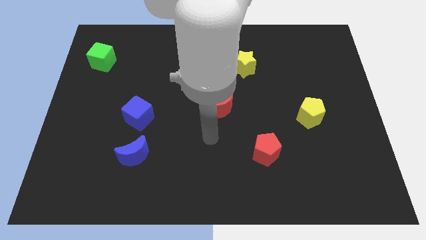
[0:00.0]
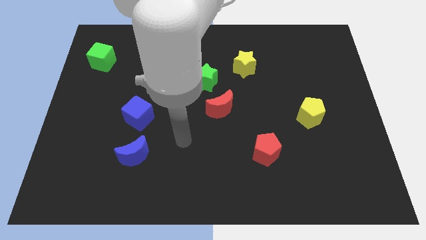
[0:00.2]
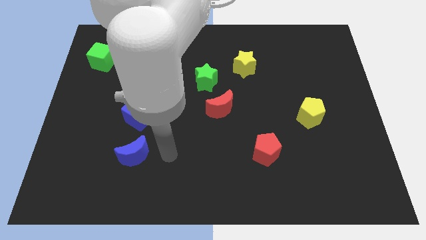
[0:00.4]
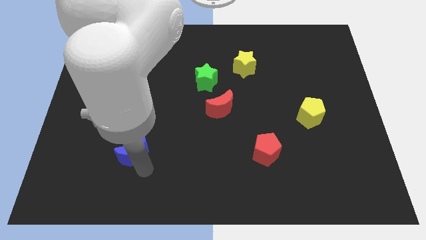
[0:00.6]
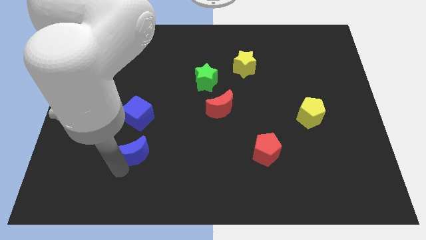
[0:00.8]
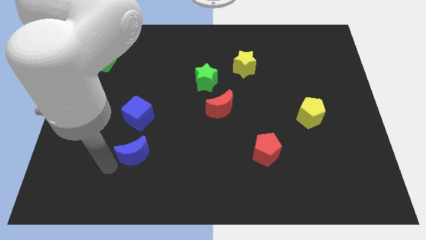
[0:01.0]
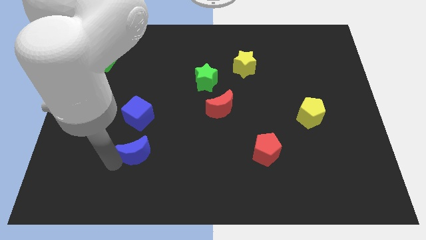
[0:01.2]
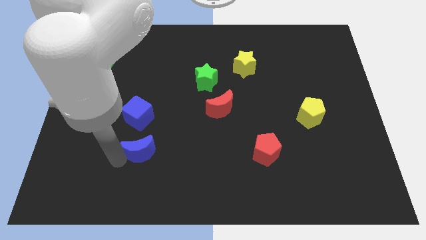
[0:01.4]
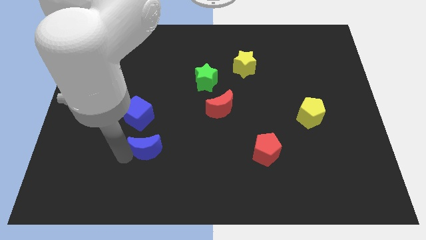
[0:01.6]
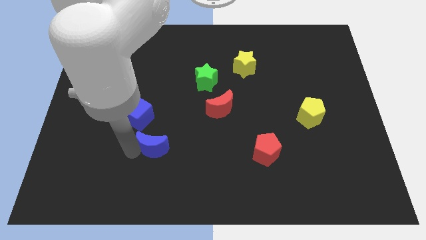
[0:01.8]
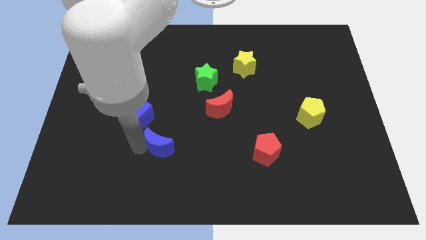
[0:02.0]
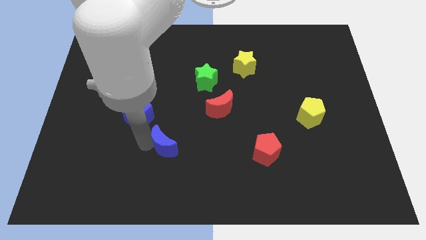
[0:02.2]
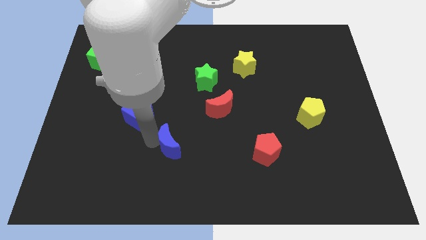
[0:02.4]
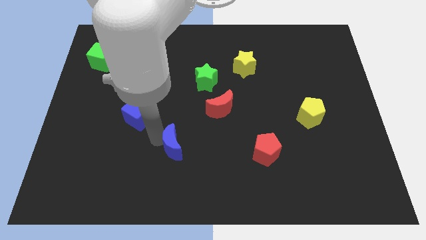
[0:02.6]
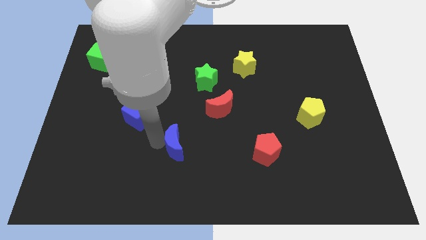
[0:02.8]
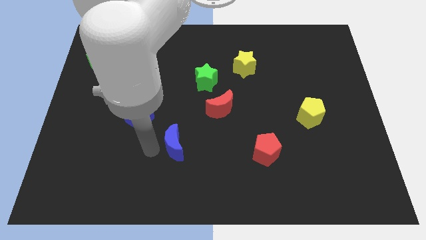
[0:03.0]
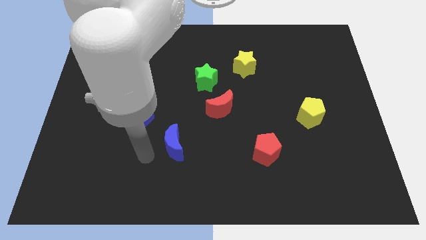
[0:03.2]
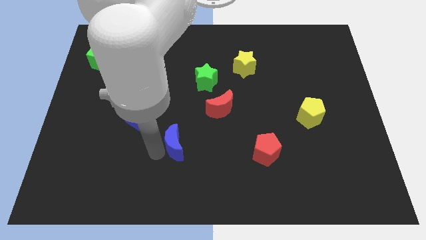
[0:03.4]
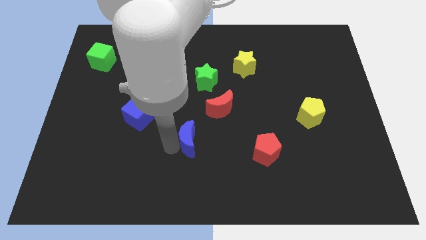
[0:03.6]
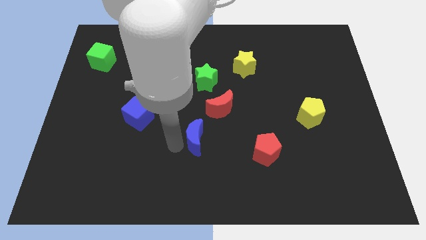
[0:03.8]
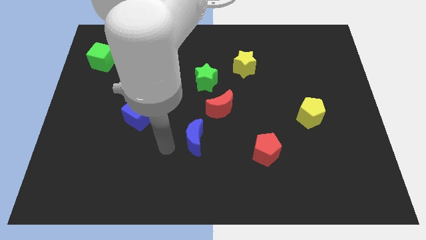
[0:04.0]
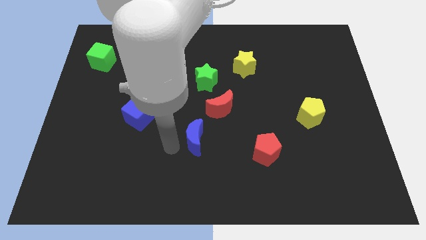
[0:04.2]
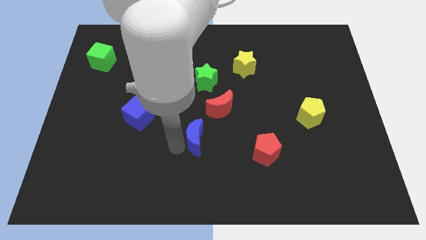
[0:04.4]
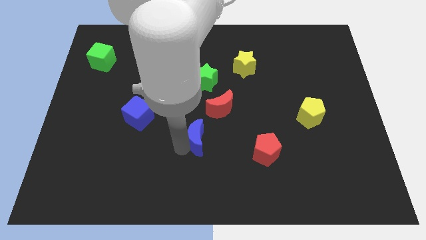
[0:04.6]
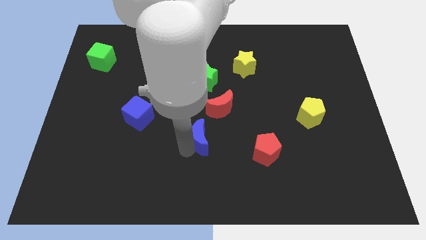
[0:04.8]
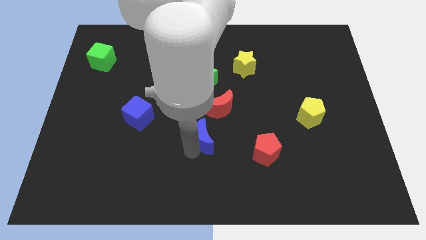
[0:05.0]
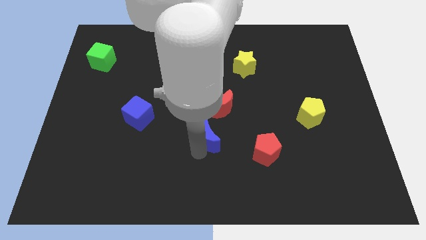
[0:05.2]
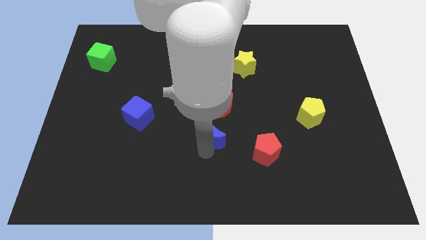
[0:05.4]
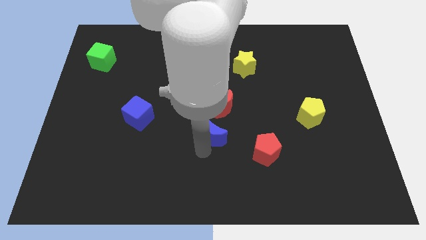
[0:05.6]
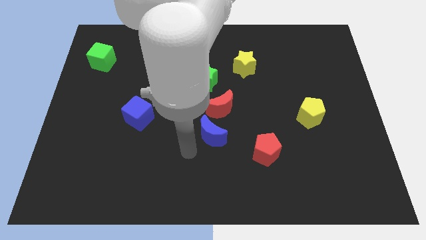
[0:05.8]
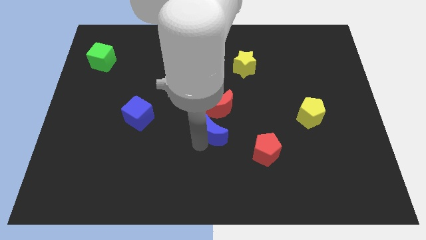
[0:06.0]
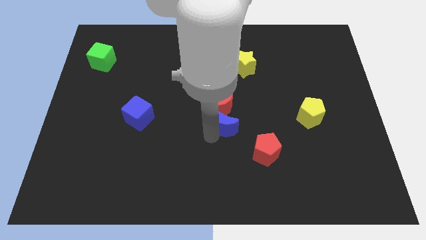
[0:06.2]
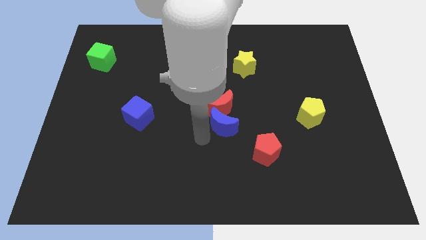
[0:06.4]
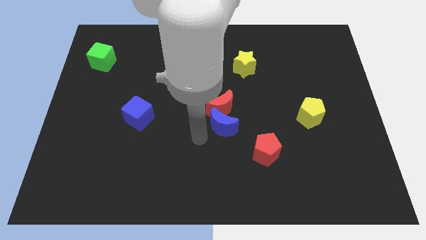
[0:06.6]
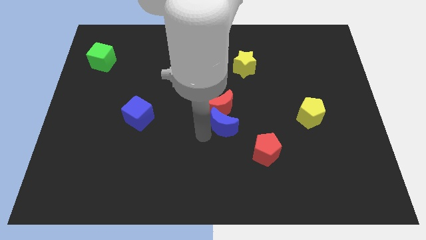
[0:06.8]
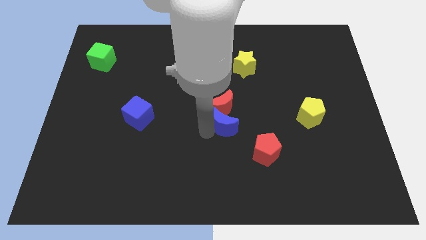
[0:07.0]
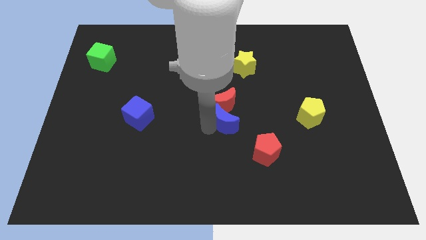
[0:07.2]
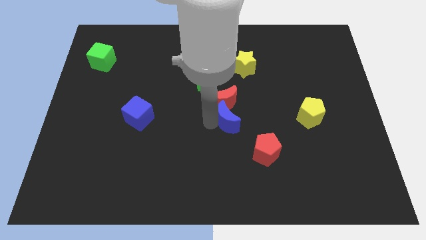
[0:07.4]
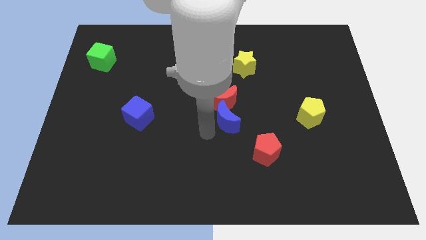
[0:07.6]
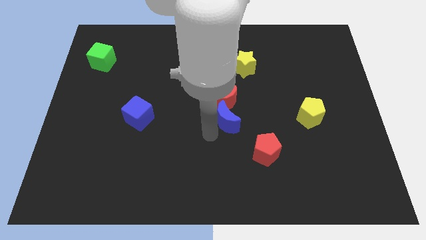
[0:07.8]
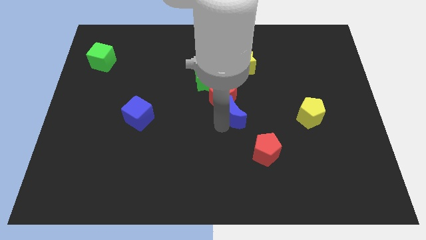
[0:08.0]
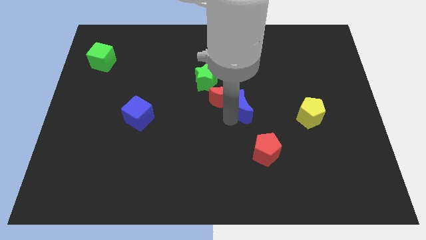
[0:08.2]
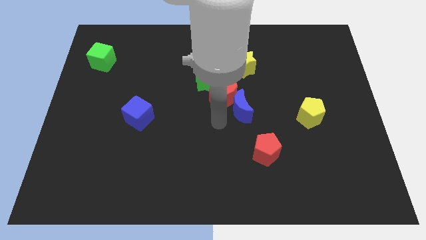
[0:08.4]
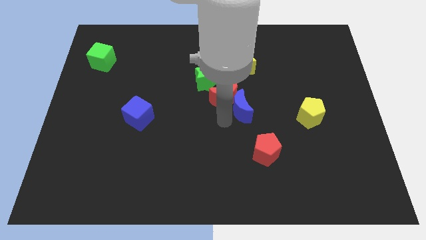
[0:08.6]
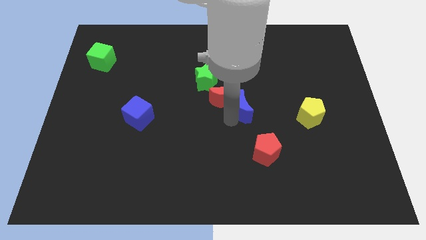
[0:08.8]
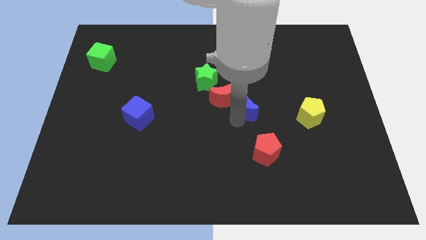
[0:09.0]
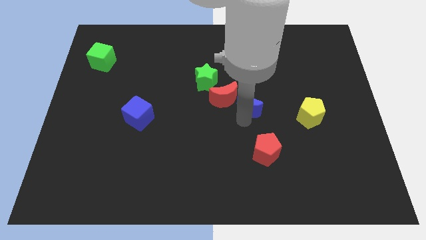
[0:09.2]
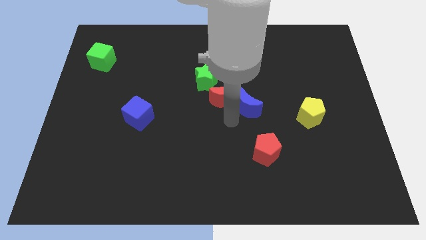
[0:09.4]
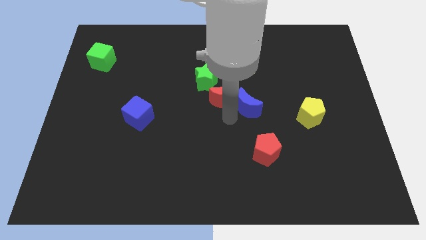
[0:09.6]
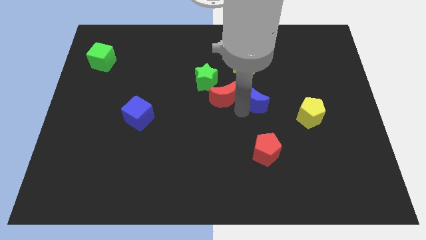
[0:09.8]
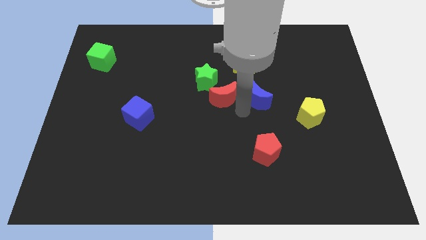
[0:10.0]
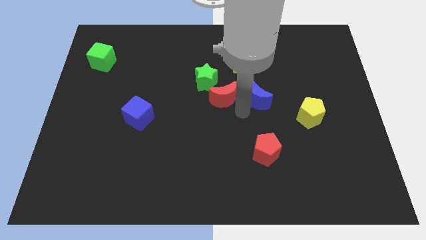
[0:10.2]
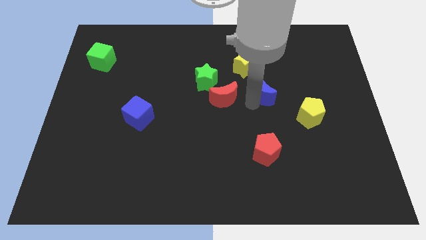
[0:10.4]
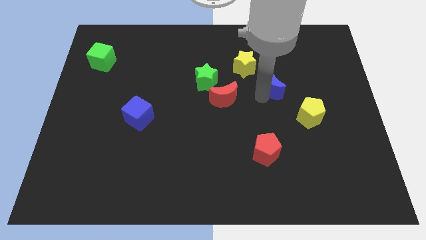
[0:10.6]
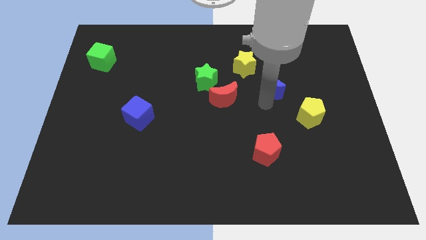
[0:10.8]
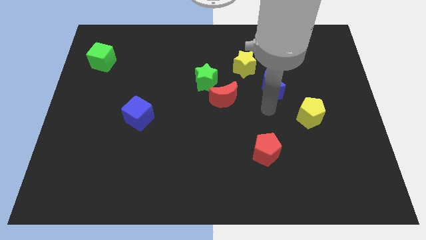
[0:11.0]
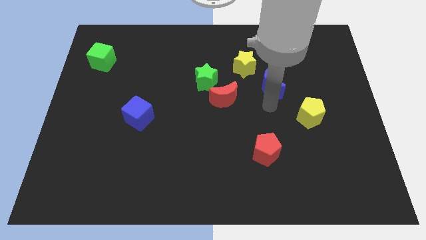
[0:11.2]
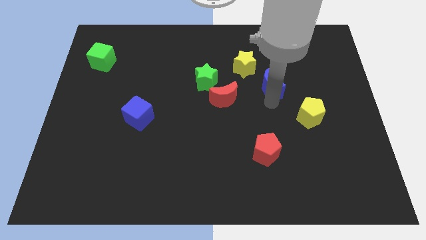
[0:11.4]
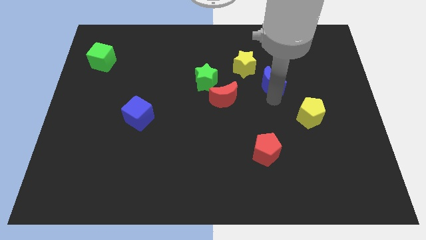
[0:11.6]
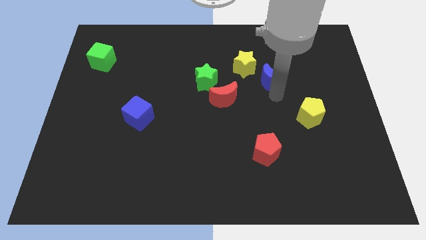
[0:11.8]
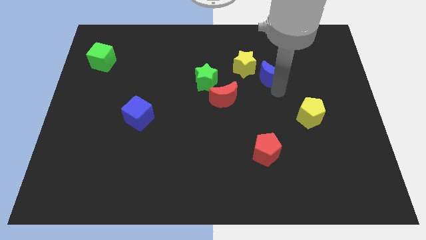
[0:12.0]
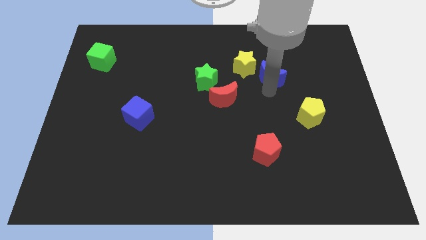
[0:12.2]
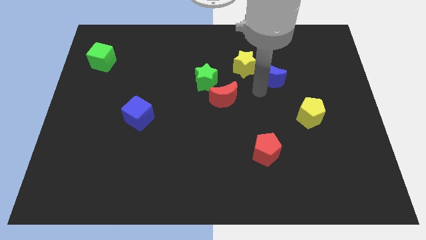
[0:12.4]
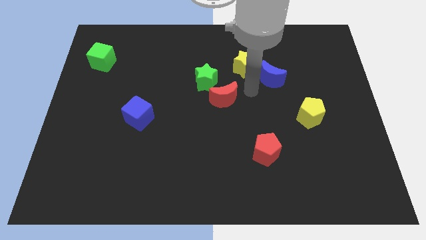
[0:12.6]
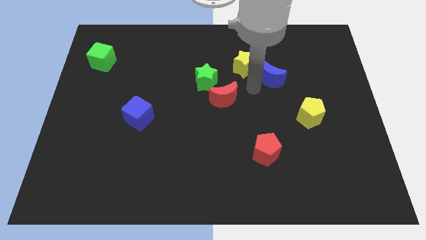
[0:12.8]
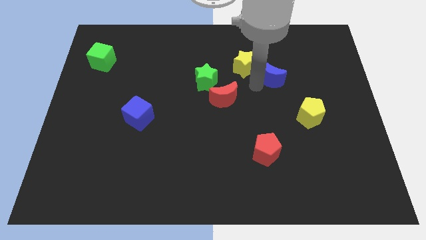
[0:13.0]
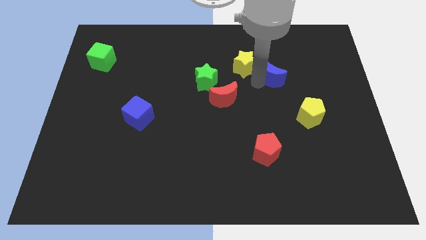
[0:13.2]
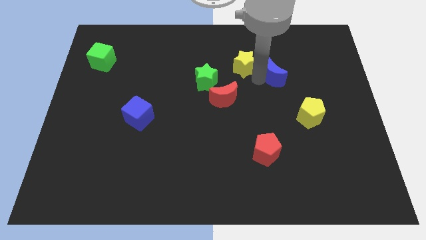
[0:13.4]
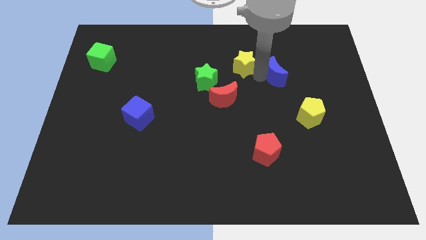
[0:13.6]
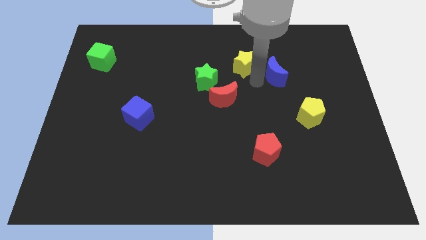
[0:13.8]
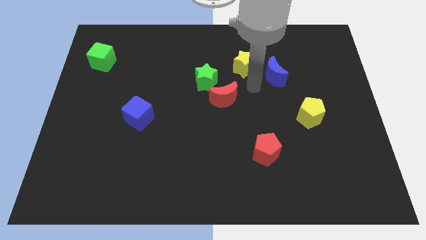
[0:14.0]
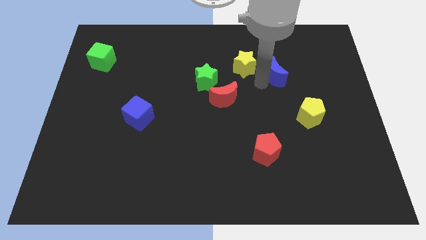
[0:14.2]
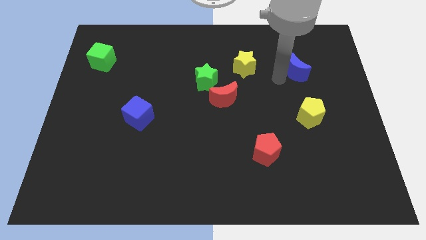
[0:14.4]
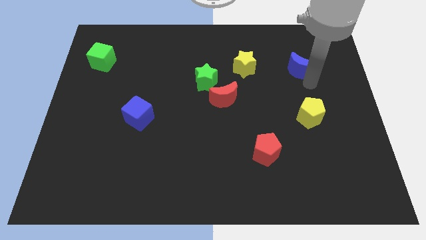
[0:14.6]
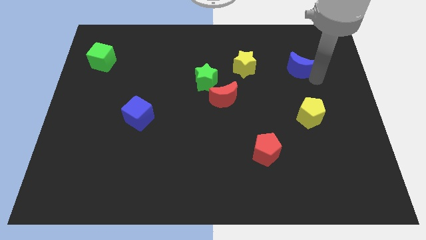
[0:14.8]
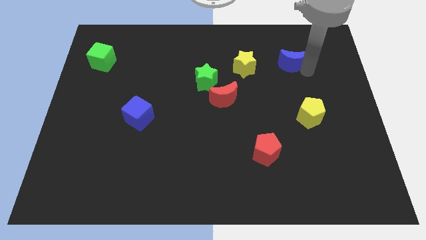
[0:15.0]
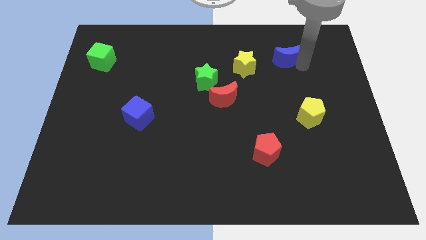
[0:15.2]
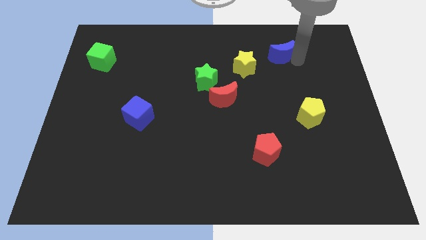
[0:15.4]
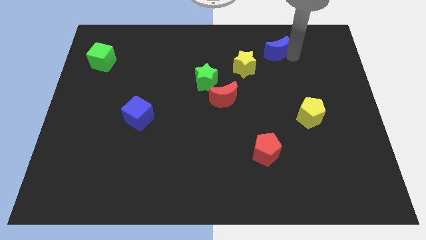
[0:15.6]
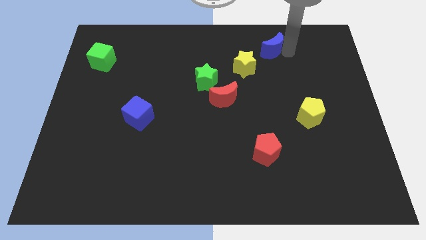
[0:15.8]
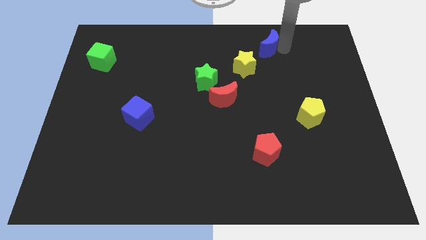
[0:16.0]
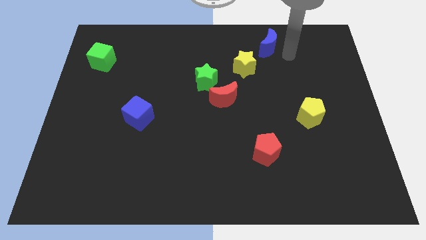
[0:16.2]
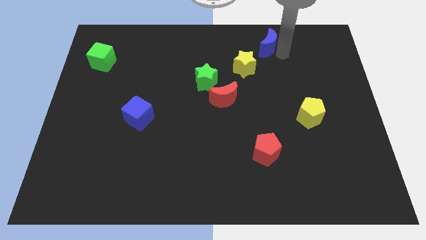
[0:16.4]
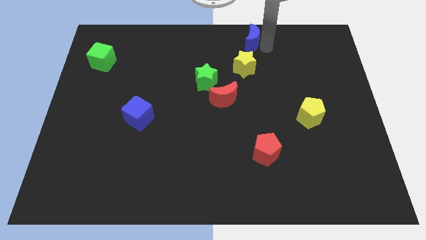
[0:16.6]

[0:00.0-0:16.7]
slide the blue moon to the top side
